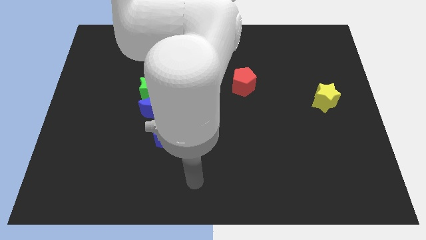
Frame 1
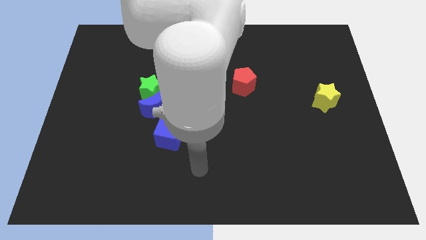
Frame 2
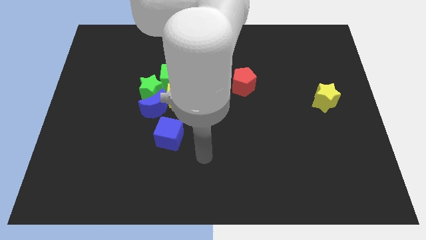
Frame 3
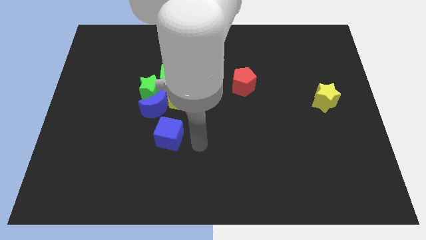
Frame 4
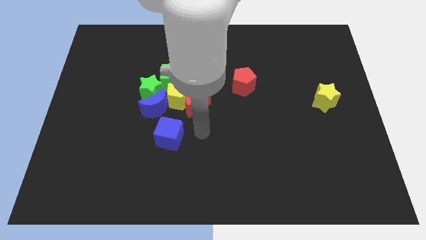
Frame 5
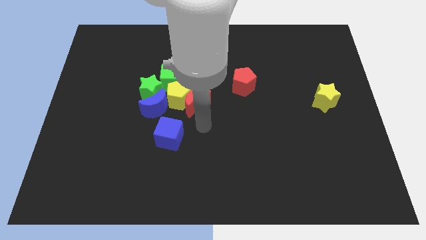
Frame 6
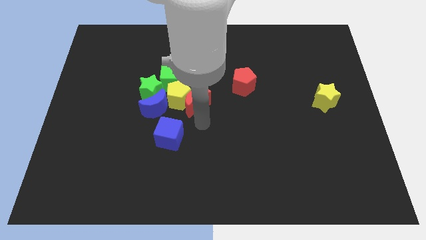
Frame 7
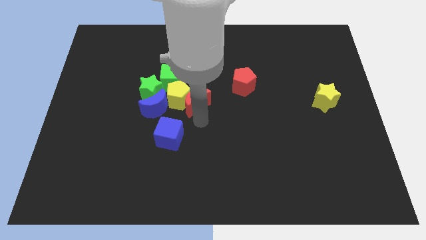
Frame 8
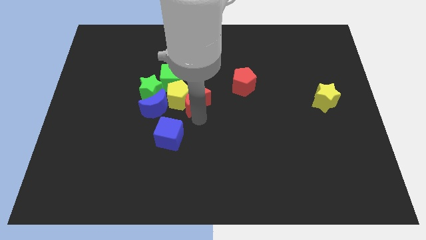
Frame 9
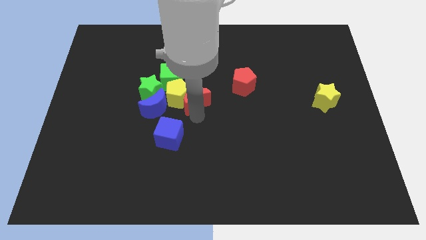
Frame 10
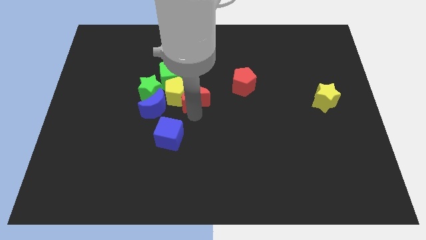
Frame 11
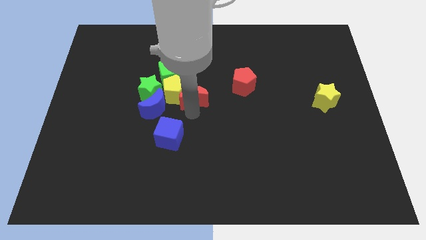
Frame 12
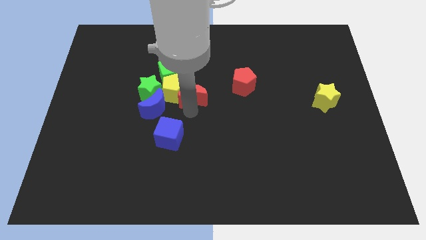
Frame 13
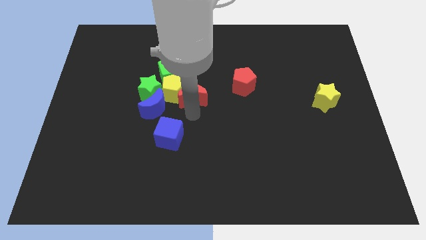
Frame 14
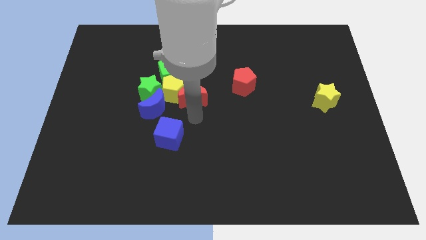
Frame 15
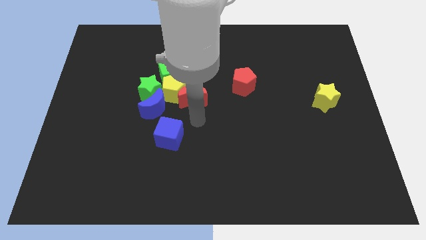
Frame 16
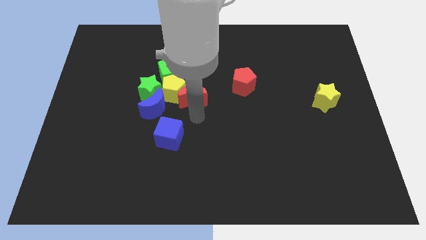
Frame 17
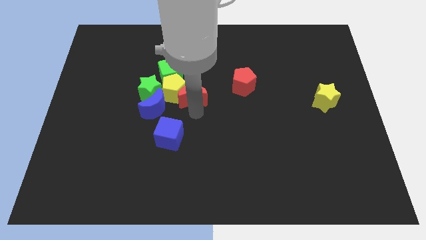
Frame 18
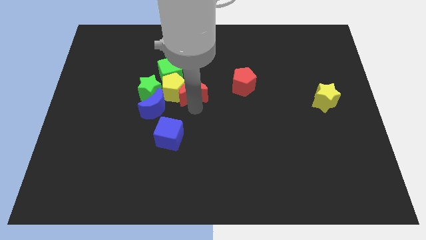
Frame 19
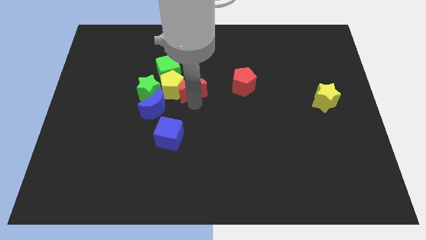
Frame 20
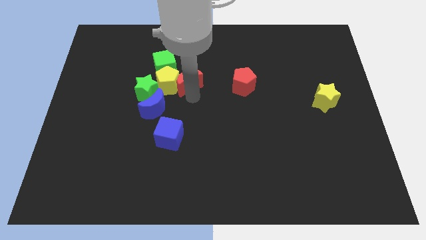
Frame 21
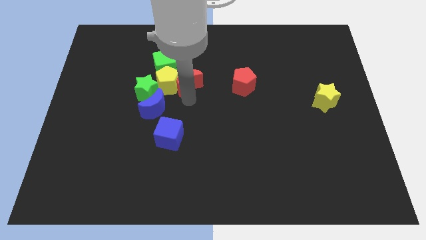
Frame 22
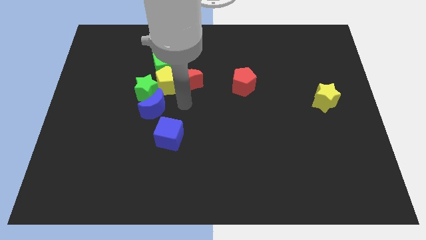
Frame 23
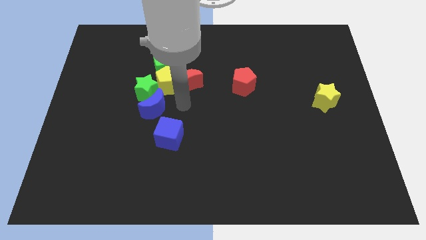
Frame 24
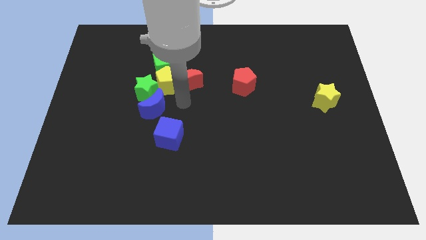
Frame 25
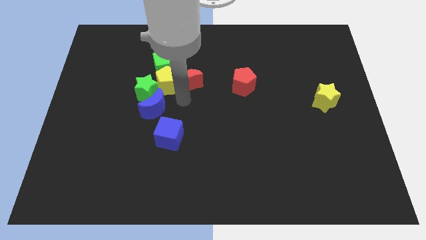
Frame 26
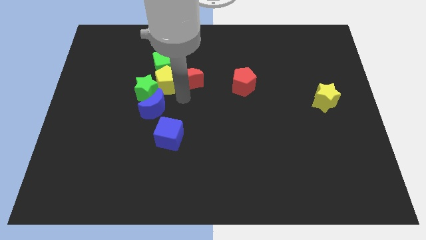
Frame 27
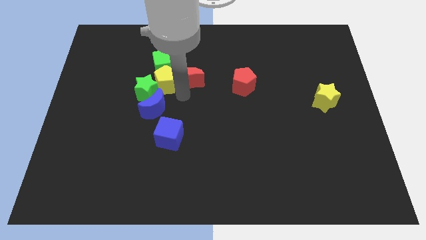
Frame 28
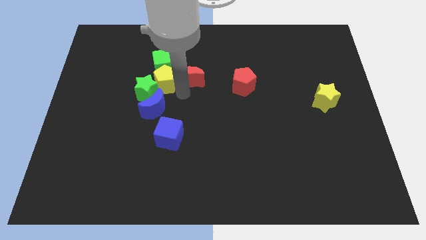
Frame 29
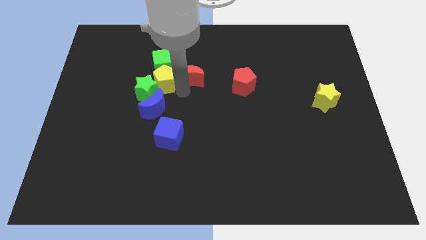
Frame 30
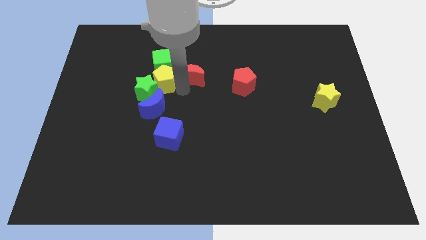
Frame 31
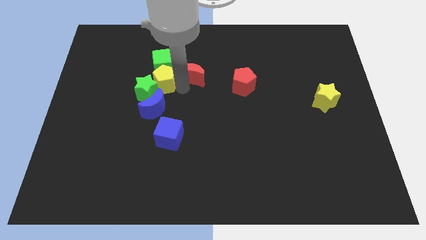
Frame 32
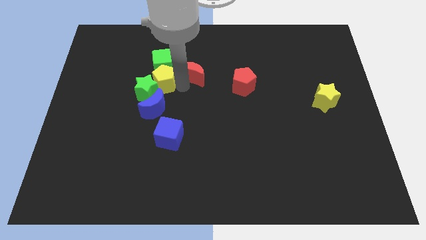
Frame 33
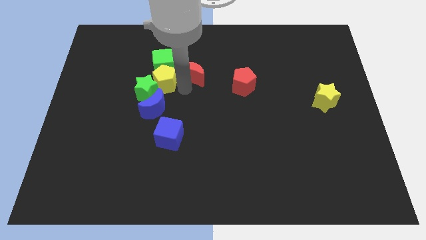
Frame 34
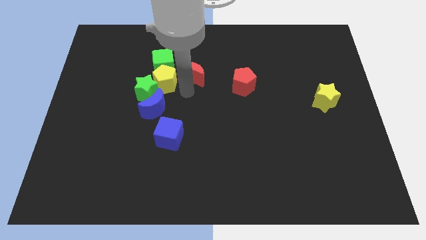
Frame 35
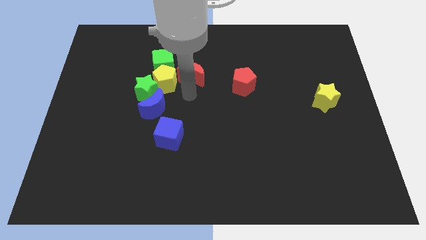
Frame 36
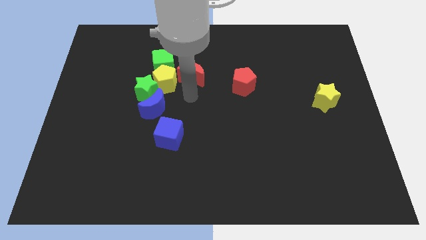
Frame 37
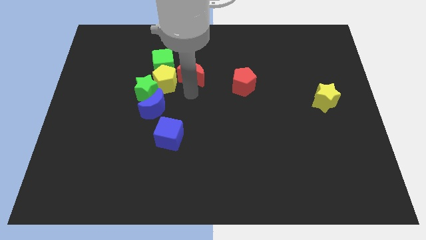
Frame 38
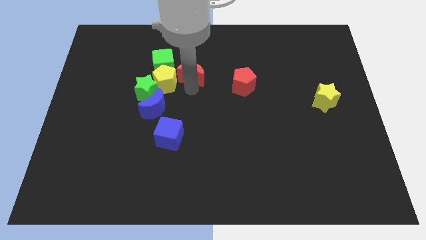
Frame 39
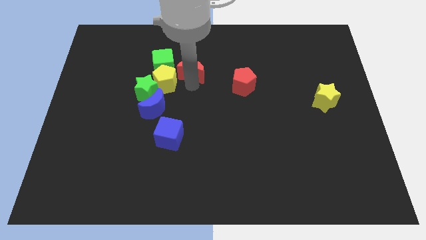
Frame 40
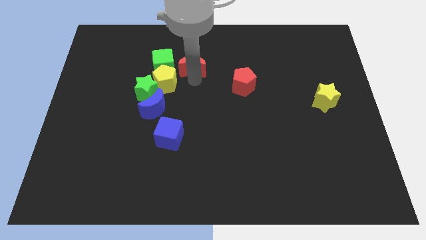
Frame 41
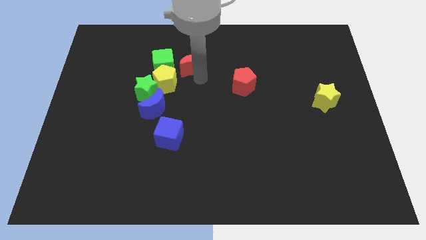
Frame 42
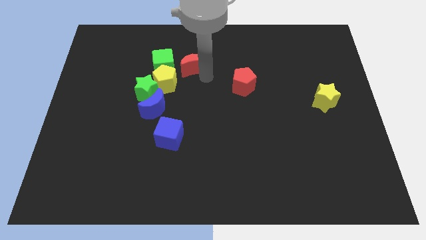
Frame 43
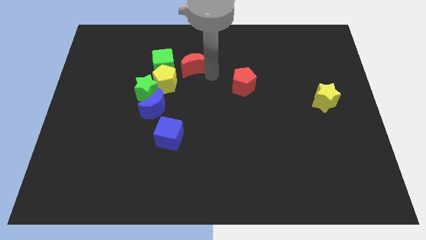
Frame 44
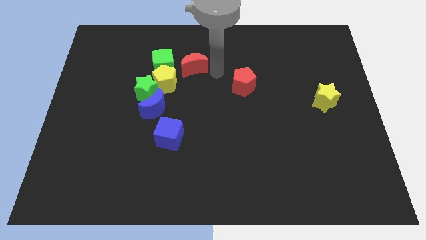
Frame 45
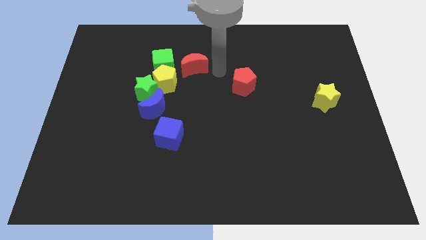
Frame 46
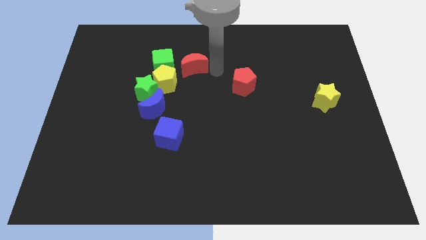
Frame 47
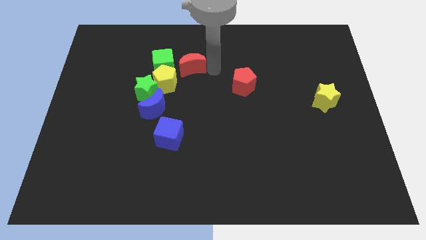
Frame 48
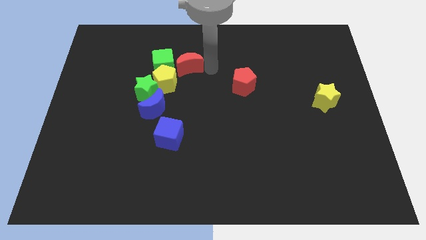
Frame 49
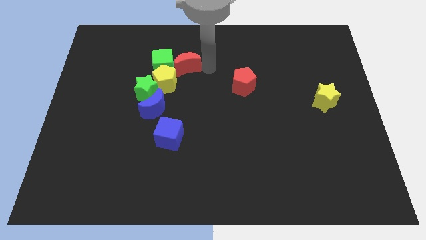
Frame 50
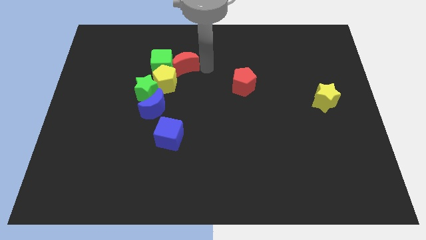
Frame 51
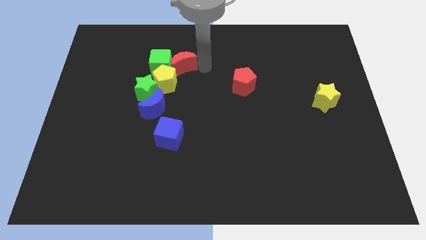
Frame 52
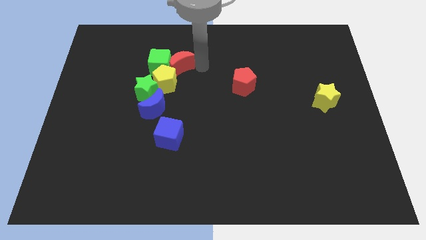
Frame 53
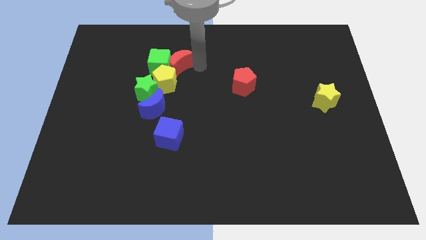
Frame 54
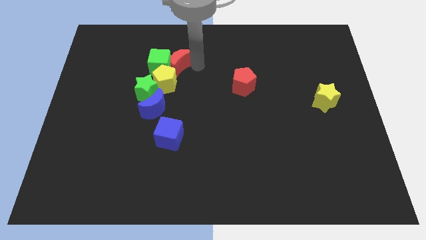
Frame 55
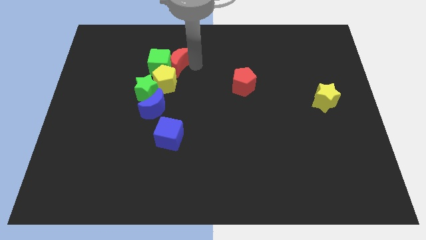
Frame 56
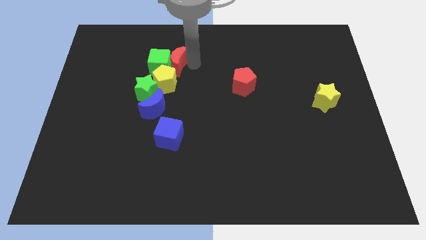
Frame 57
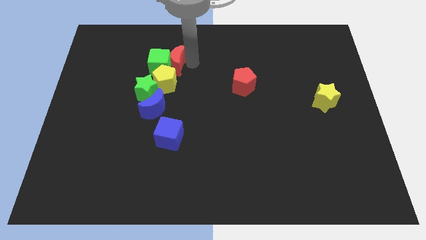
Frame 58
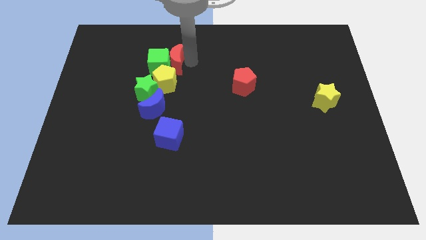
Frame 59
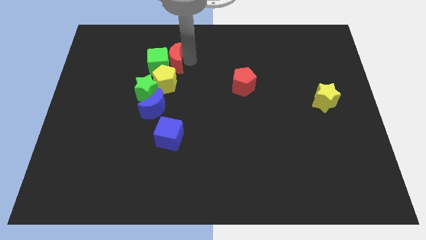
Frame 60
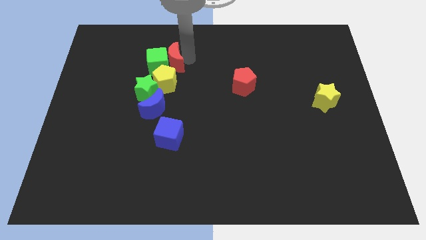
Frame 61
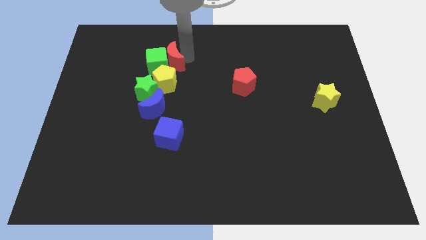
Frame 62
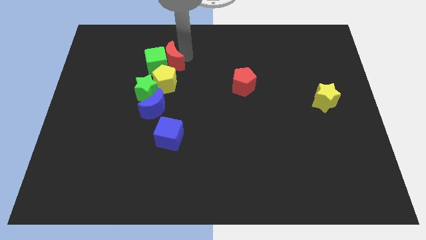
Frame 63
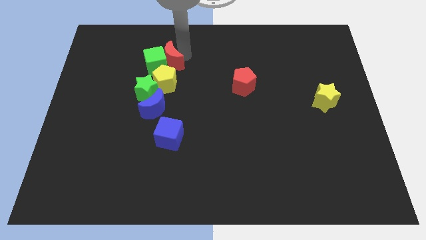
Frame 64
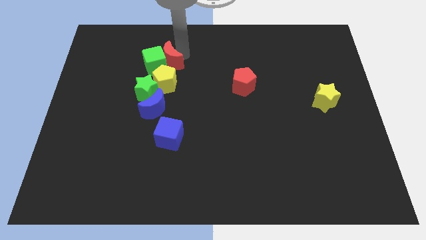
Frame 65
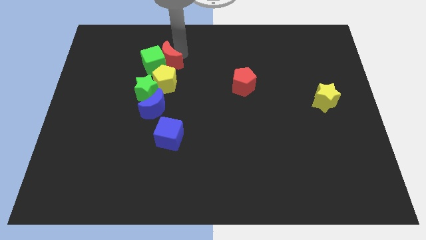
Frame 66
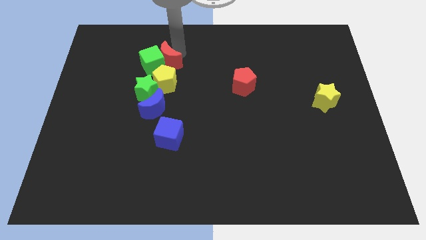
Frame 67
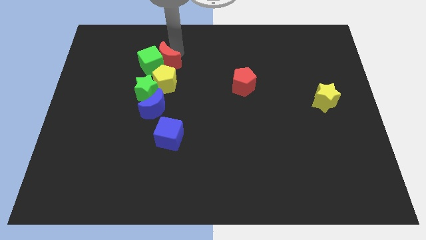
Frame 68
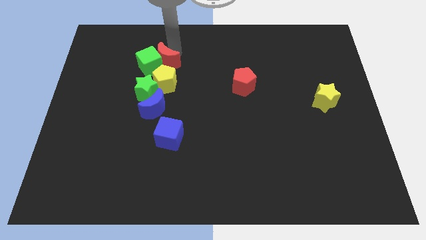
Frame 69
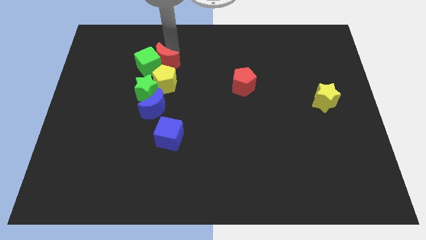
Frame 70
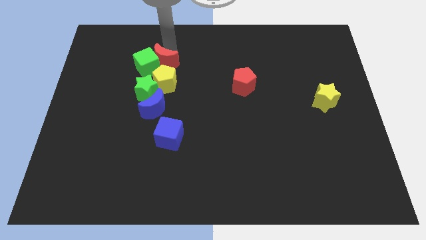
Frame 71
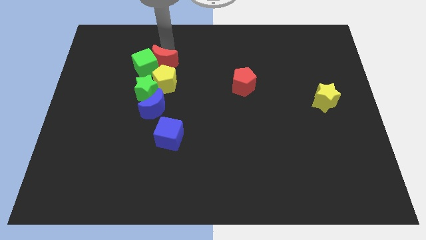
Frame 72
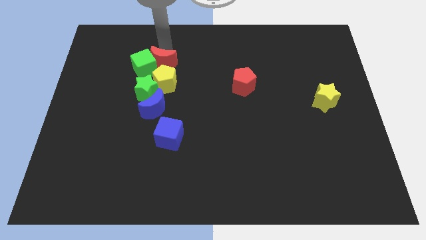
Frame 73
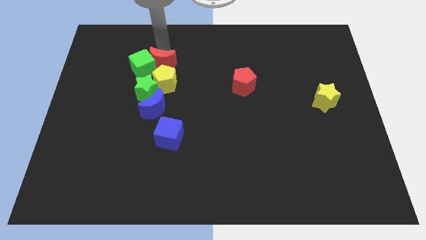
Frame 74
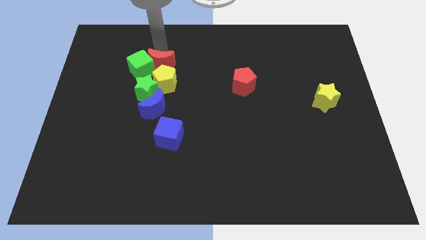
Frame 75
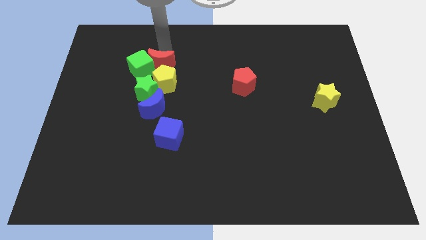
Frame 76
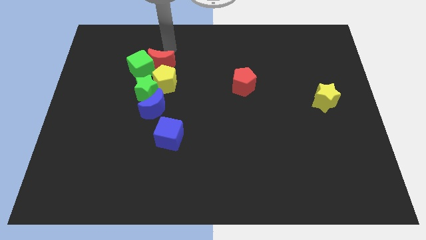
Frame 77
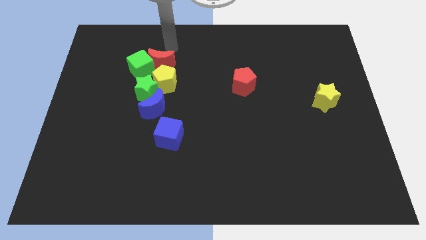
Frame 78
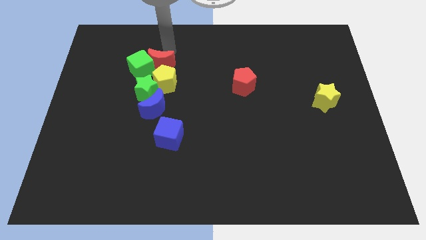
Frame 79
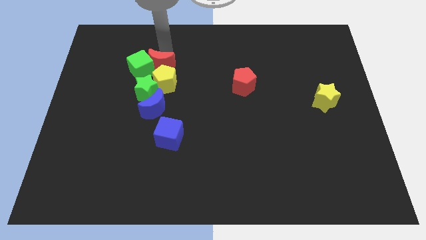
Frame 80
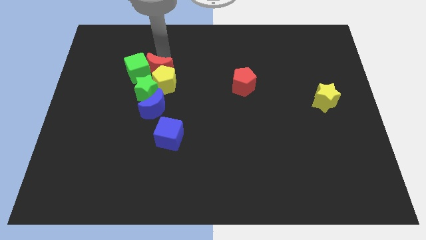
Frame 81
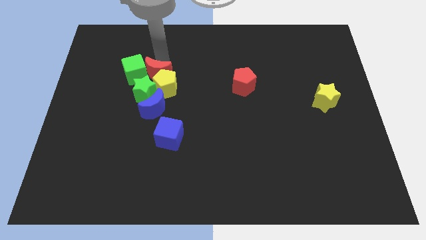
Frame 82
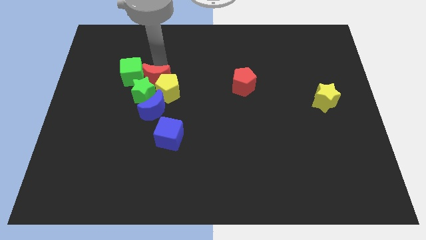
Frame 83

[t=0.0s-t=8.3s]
move the red moon towards the green star
